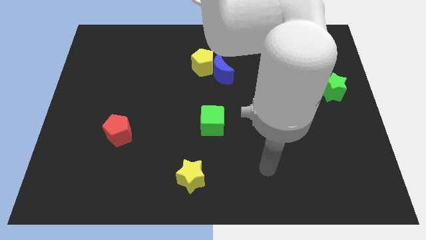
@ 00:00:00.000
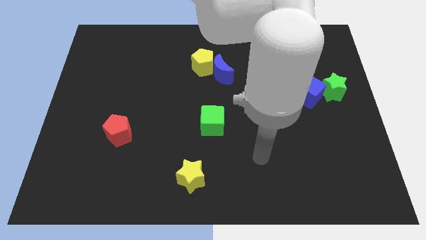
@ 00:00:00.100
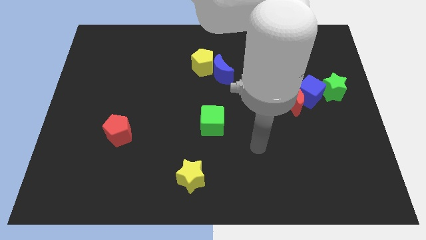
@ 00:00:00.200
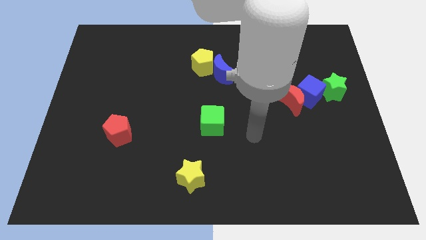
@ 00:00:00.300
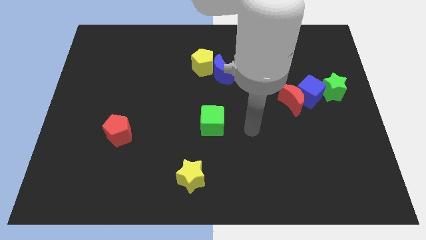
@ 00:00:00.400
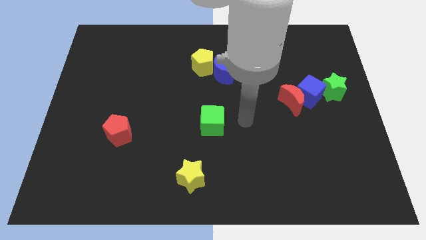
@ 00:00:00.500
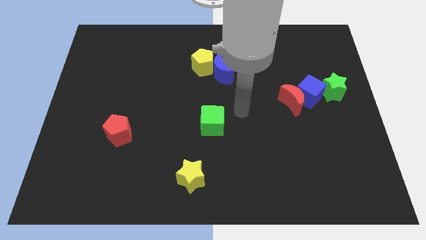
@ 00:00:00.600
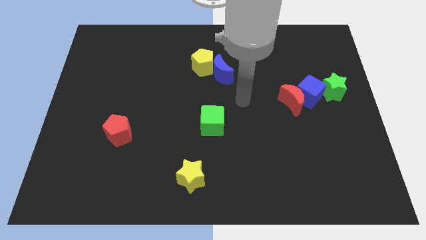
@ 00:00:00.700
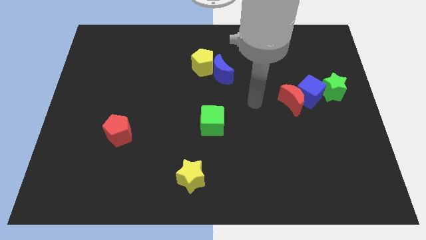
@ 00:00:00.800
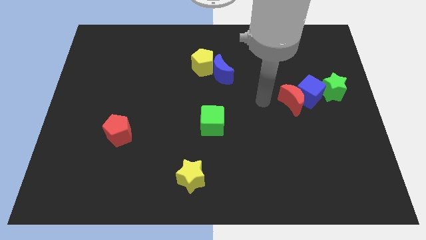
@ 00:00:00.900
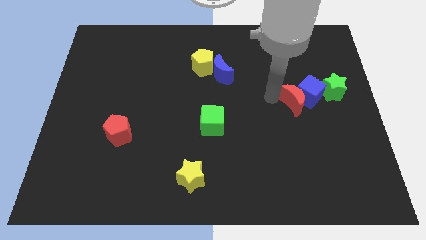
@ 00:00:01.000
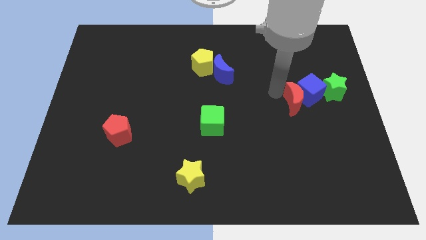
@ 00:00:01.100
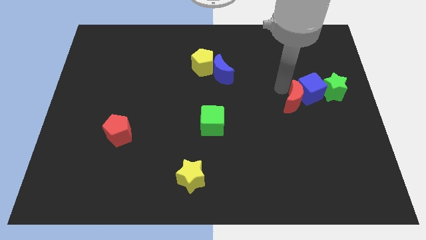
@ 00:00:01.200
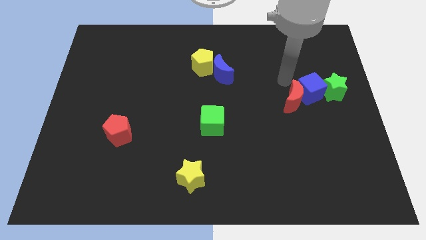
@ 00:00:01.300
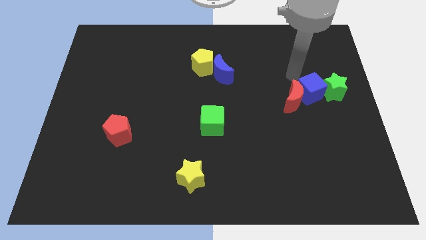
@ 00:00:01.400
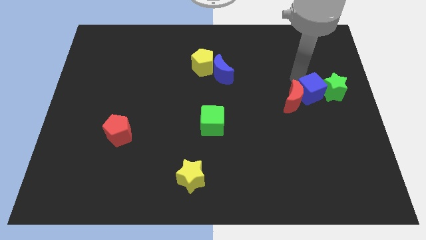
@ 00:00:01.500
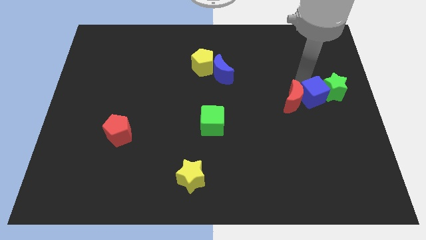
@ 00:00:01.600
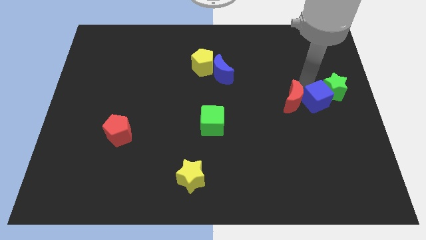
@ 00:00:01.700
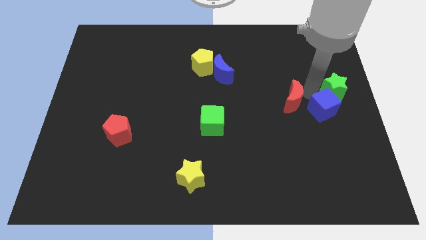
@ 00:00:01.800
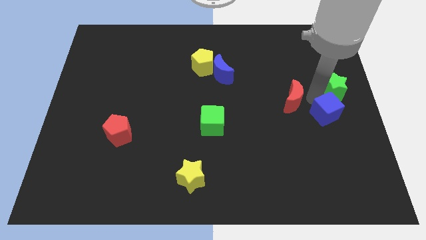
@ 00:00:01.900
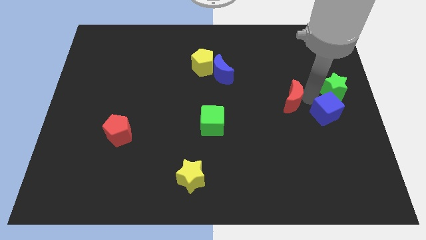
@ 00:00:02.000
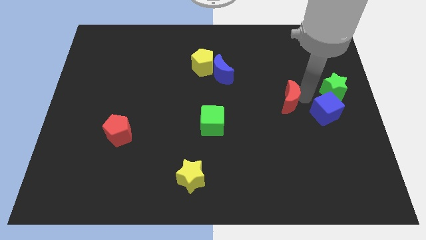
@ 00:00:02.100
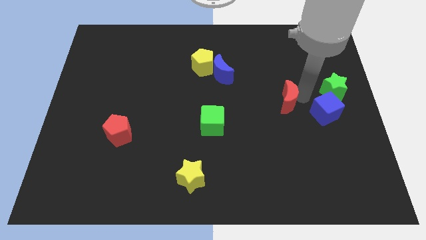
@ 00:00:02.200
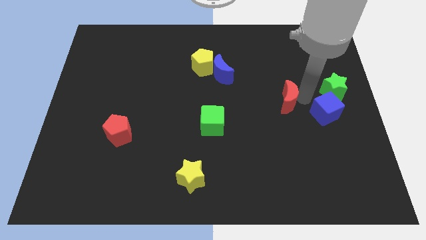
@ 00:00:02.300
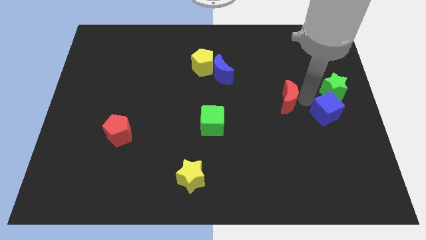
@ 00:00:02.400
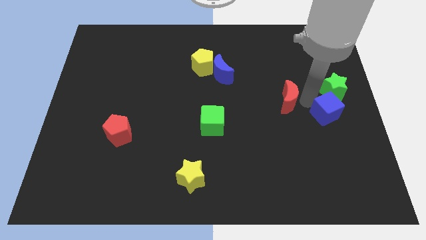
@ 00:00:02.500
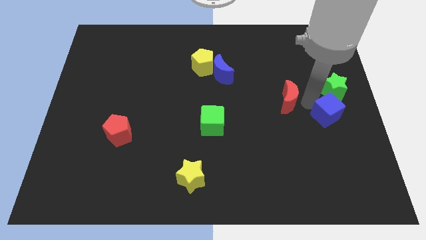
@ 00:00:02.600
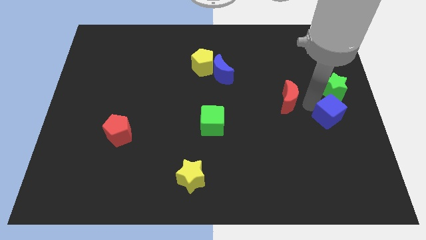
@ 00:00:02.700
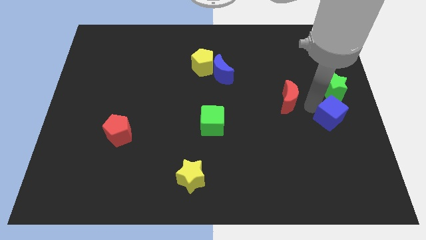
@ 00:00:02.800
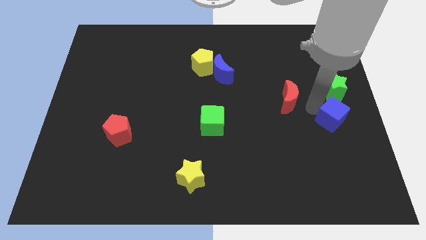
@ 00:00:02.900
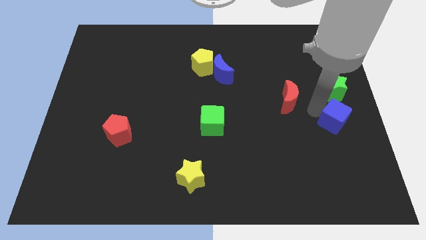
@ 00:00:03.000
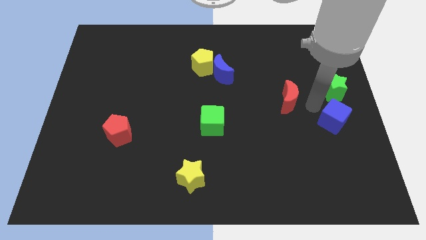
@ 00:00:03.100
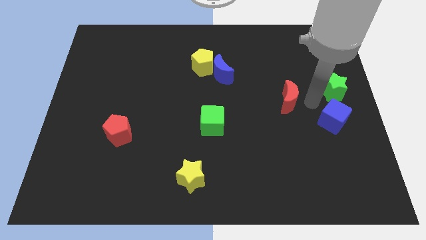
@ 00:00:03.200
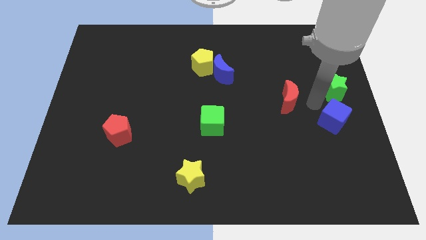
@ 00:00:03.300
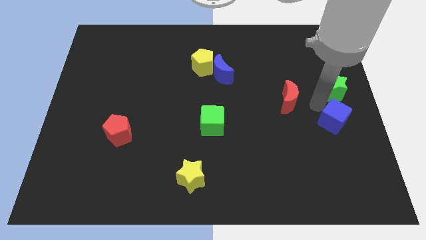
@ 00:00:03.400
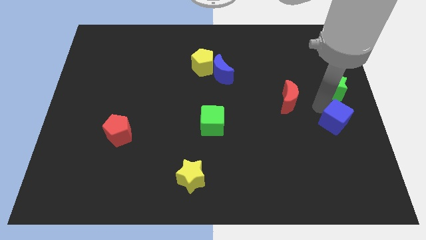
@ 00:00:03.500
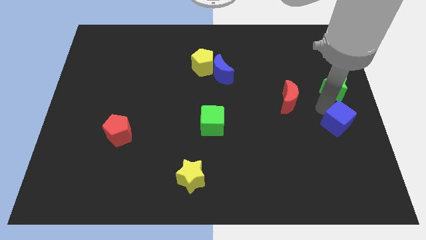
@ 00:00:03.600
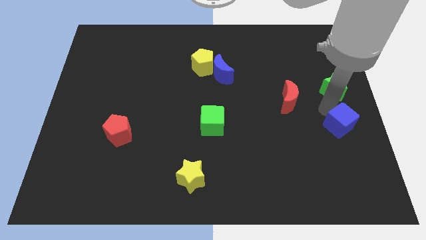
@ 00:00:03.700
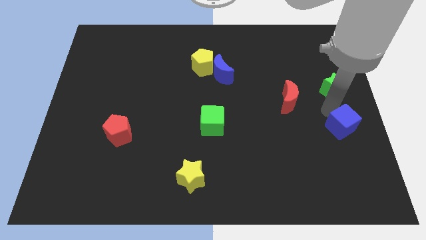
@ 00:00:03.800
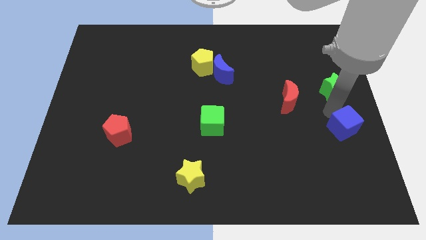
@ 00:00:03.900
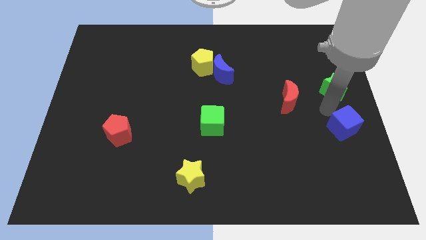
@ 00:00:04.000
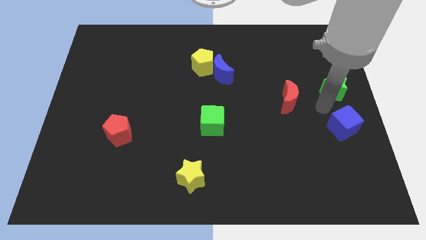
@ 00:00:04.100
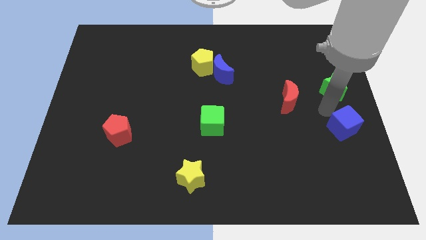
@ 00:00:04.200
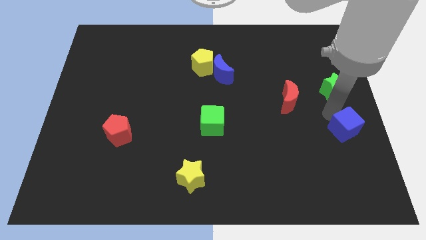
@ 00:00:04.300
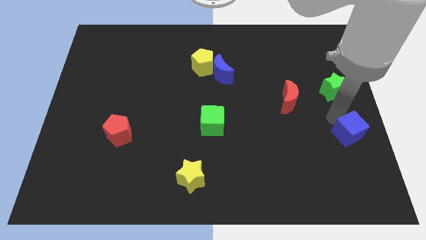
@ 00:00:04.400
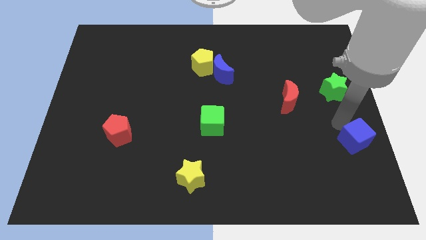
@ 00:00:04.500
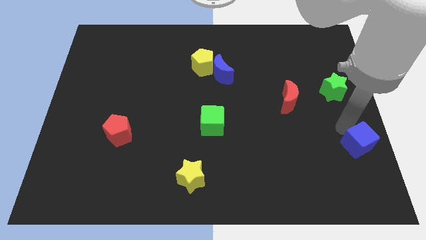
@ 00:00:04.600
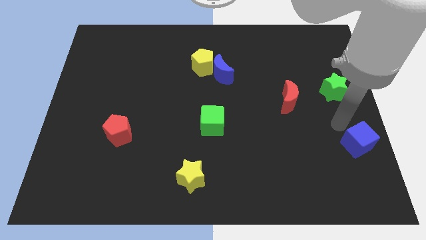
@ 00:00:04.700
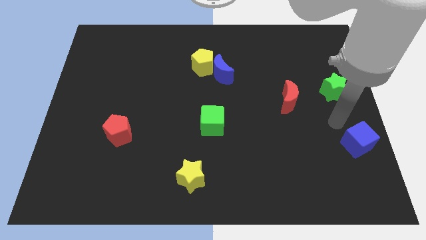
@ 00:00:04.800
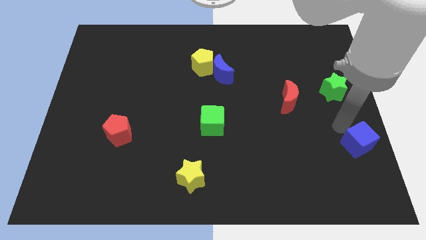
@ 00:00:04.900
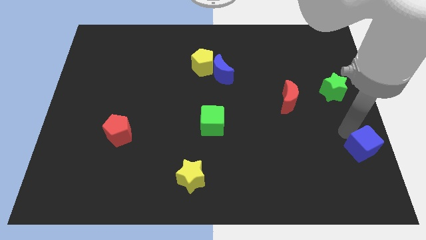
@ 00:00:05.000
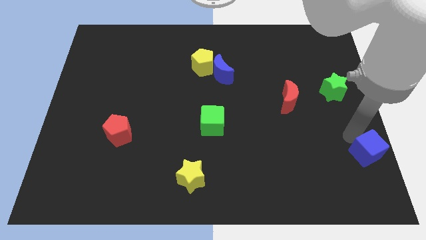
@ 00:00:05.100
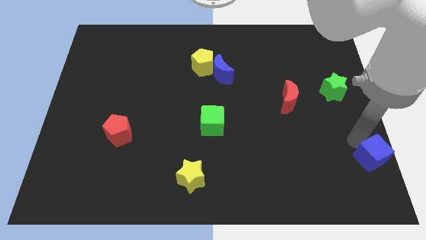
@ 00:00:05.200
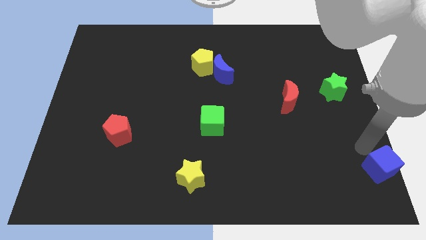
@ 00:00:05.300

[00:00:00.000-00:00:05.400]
put the blue cube to the bottom right corner

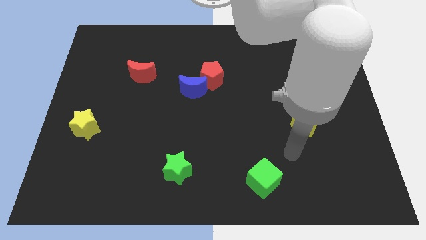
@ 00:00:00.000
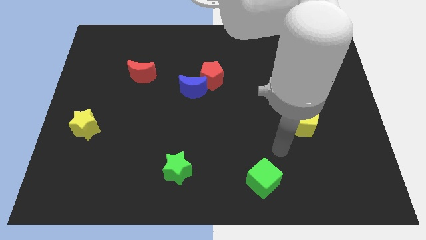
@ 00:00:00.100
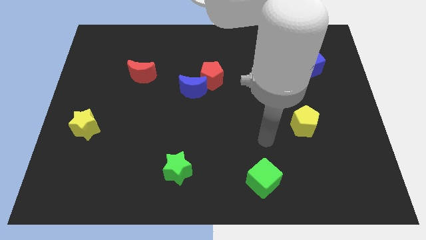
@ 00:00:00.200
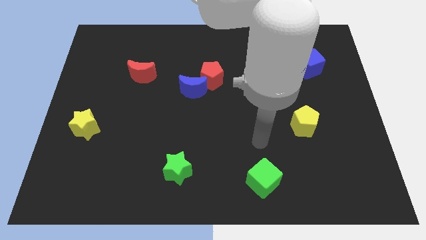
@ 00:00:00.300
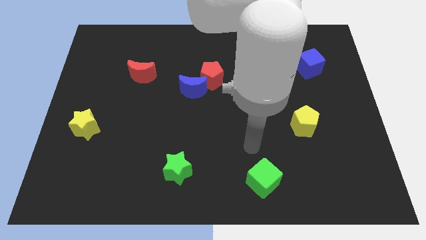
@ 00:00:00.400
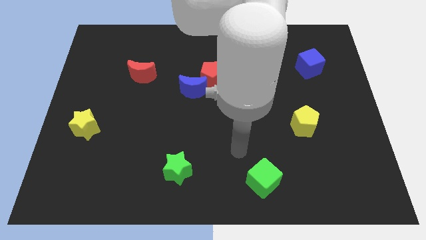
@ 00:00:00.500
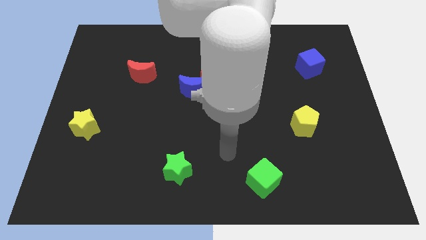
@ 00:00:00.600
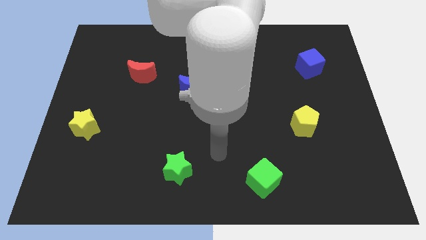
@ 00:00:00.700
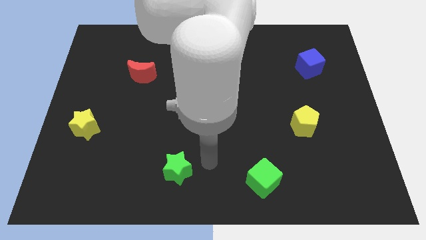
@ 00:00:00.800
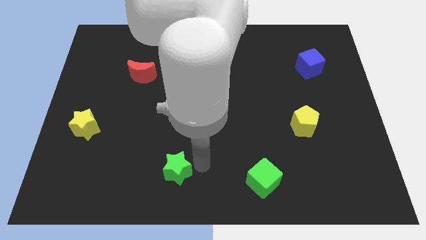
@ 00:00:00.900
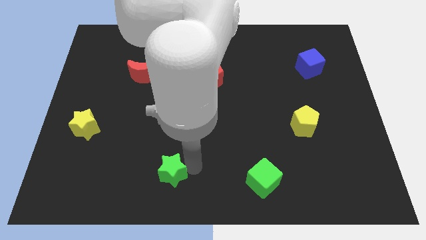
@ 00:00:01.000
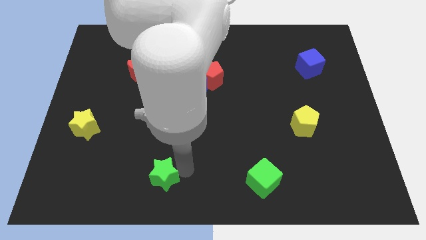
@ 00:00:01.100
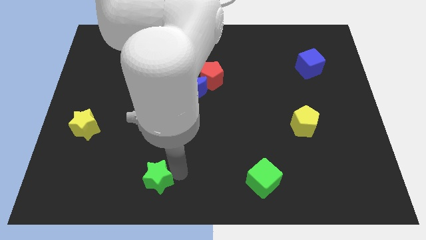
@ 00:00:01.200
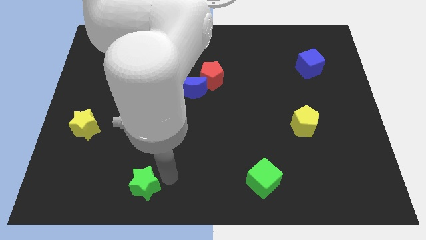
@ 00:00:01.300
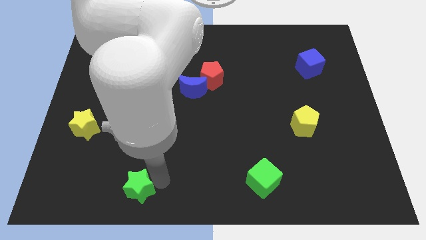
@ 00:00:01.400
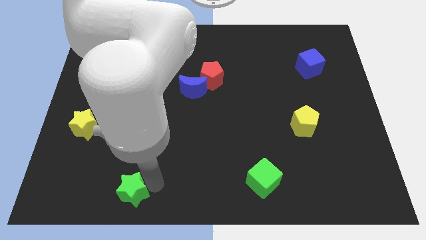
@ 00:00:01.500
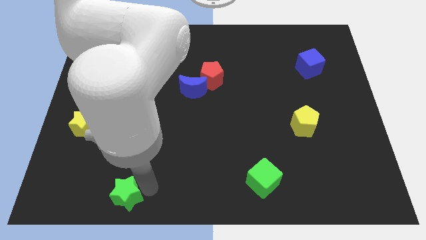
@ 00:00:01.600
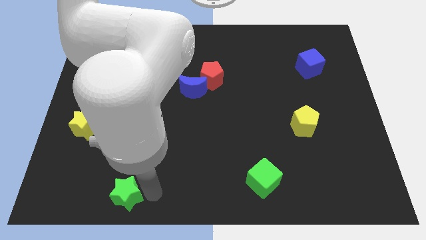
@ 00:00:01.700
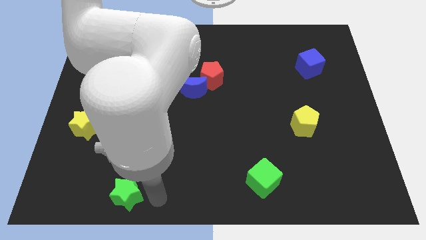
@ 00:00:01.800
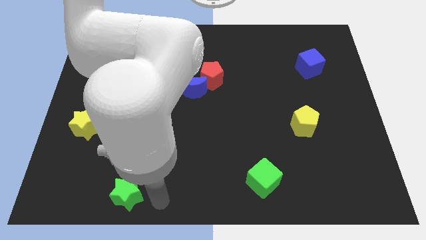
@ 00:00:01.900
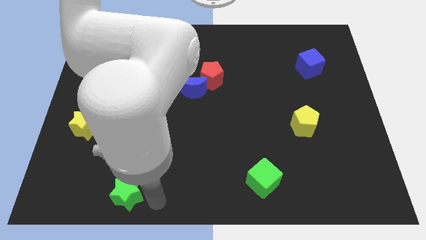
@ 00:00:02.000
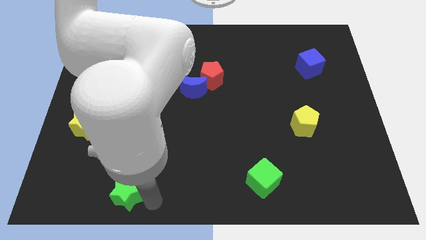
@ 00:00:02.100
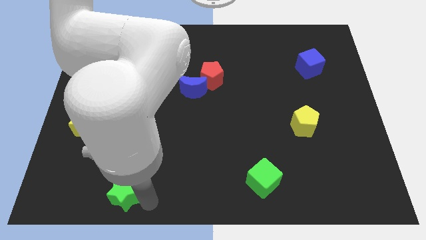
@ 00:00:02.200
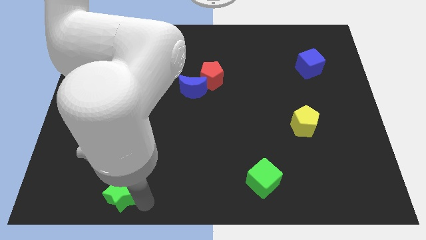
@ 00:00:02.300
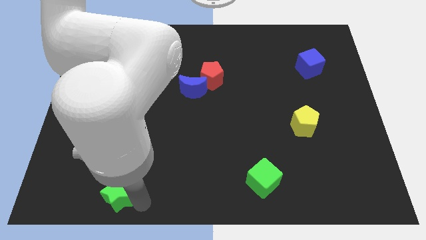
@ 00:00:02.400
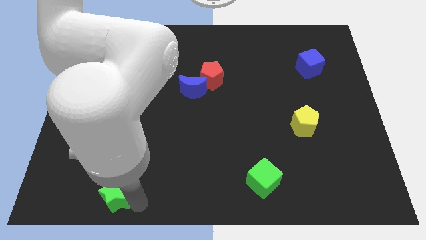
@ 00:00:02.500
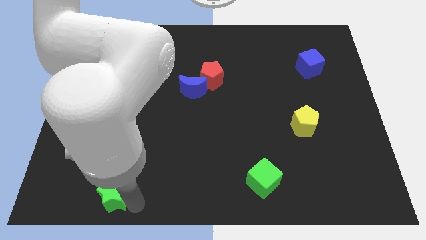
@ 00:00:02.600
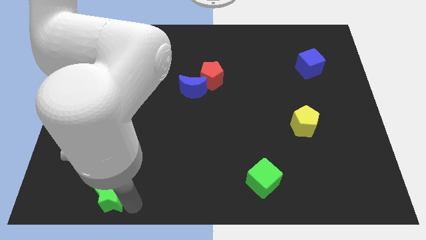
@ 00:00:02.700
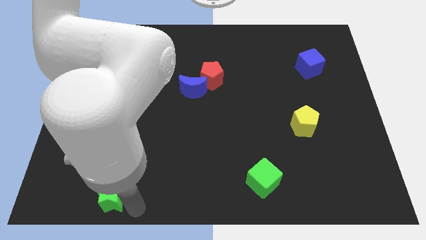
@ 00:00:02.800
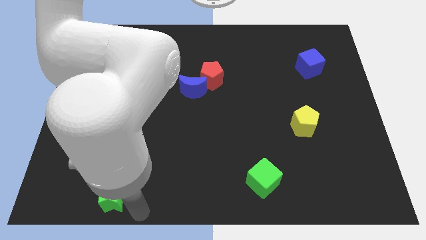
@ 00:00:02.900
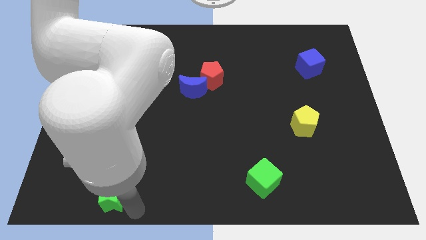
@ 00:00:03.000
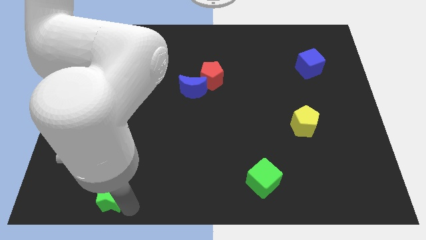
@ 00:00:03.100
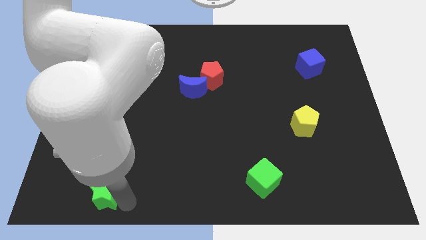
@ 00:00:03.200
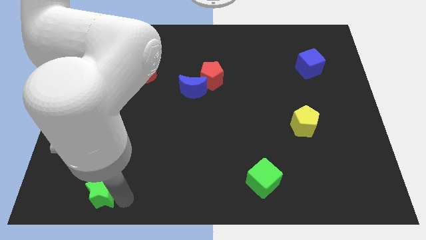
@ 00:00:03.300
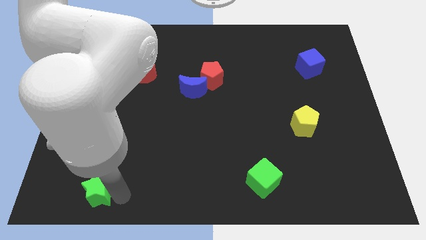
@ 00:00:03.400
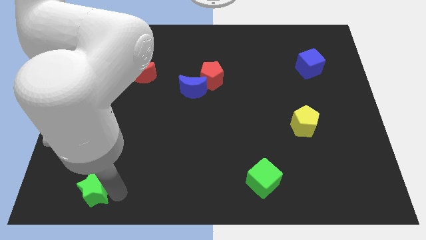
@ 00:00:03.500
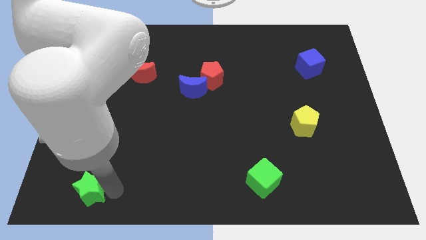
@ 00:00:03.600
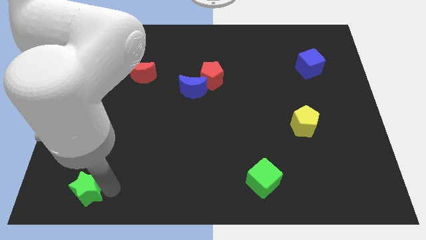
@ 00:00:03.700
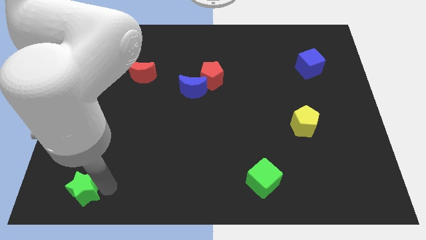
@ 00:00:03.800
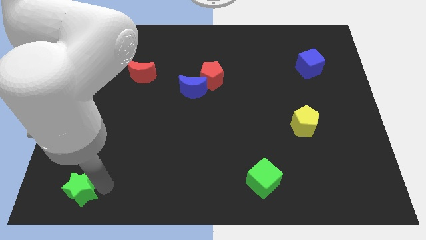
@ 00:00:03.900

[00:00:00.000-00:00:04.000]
push the green star to the bottom left corner
